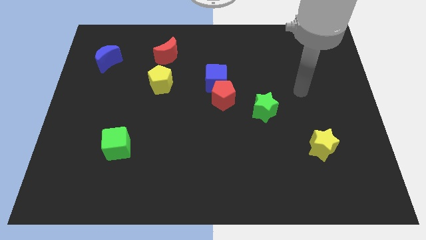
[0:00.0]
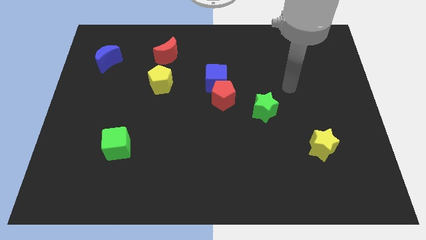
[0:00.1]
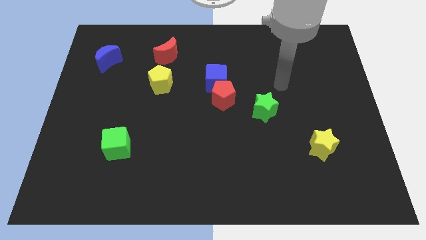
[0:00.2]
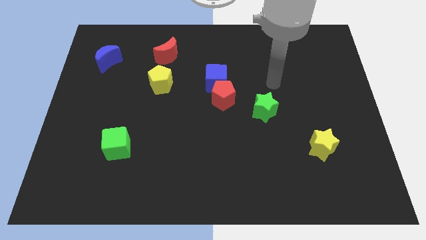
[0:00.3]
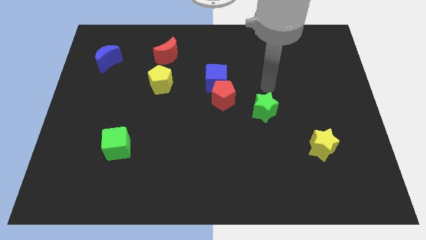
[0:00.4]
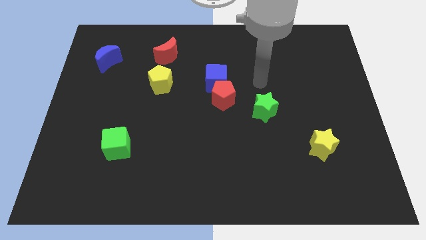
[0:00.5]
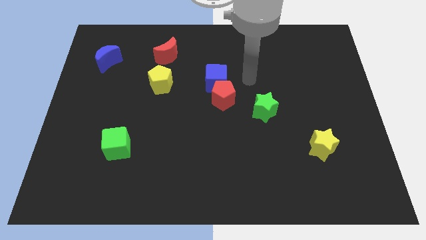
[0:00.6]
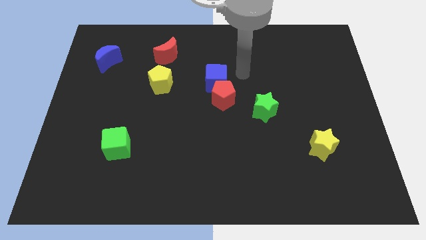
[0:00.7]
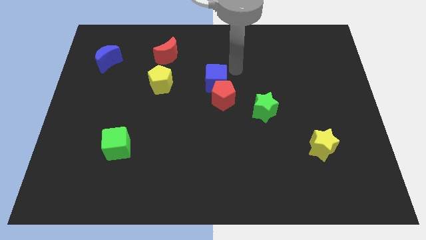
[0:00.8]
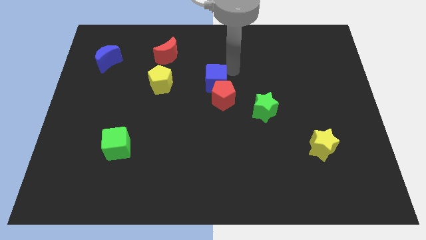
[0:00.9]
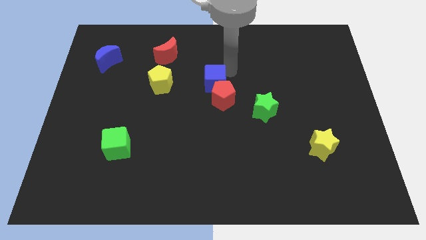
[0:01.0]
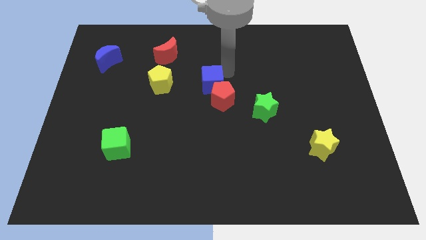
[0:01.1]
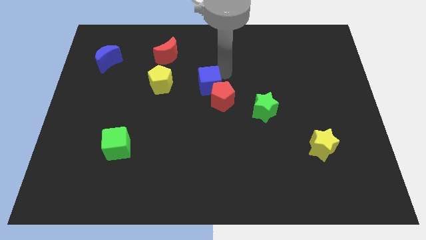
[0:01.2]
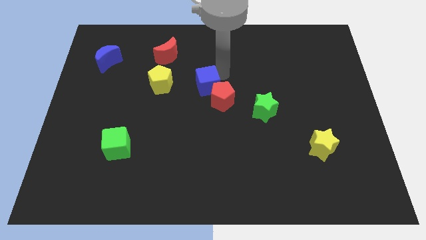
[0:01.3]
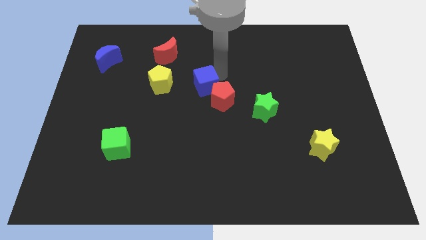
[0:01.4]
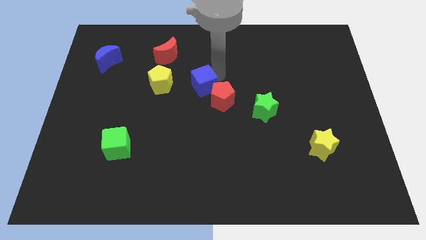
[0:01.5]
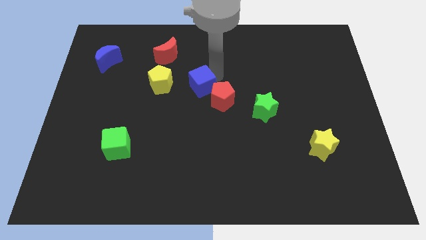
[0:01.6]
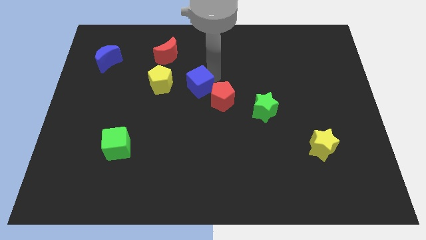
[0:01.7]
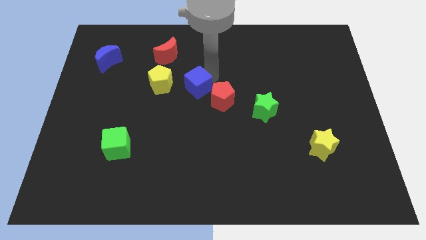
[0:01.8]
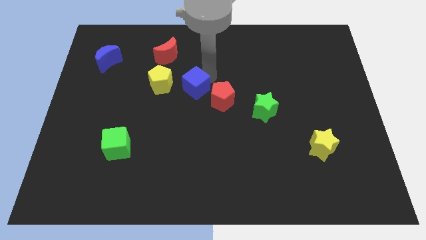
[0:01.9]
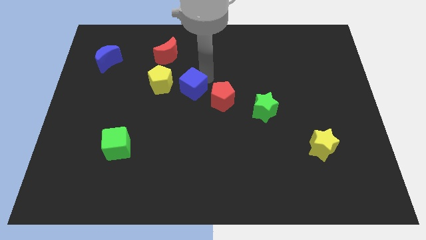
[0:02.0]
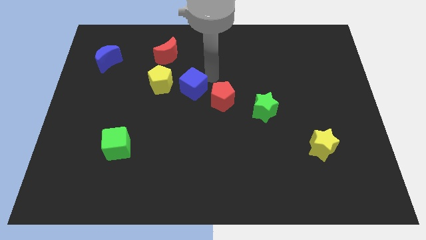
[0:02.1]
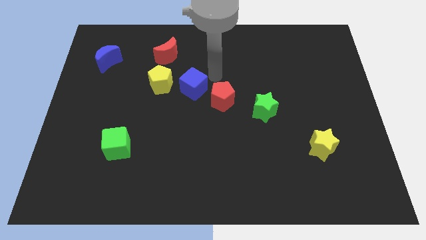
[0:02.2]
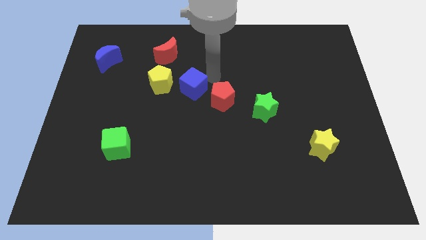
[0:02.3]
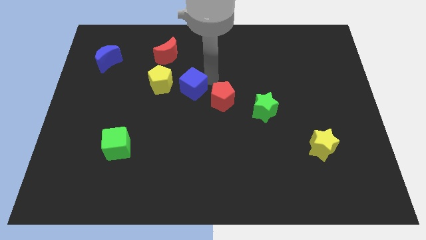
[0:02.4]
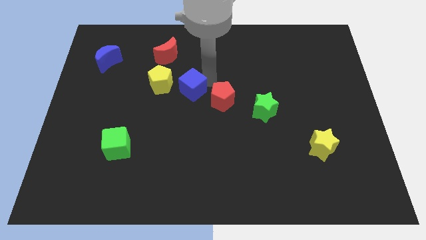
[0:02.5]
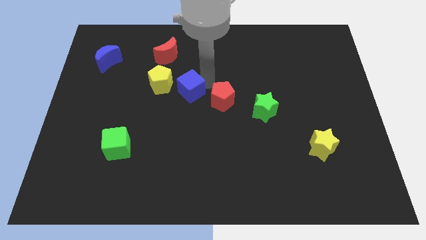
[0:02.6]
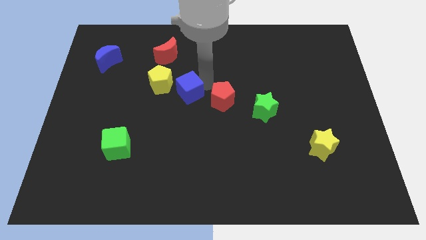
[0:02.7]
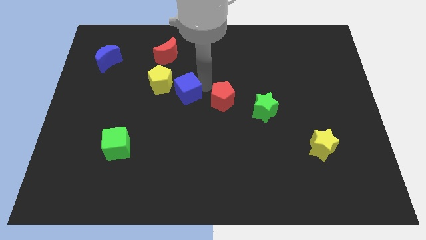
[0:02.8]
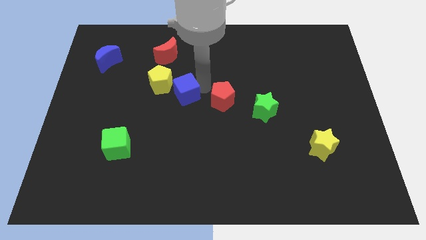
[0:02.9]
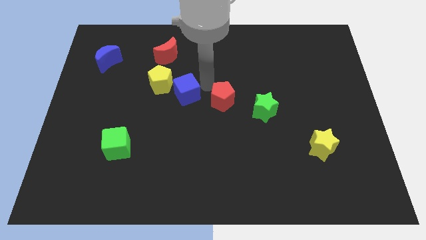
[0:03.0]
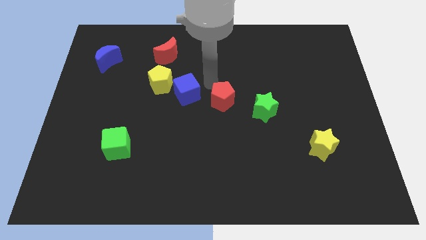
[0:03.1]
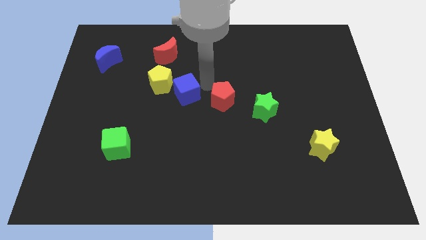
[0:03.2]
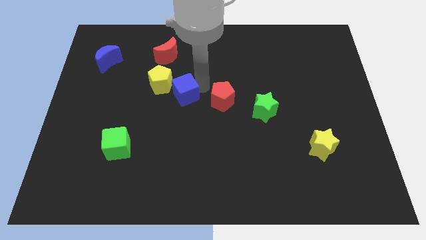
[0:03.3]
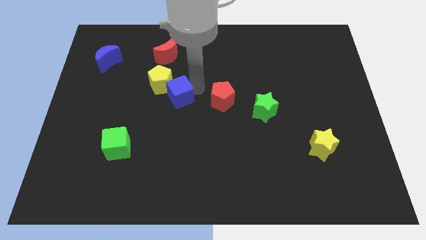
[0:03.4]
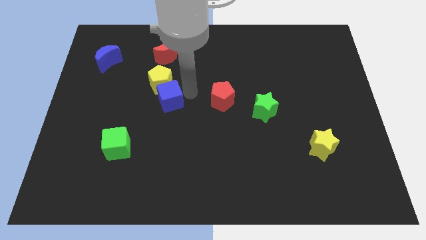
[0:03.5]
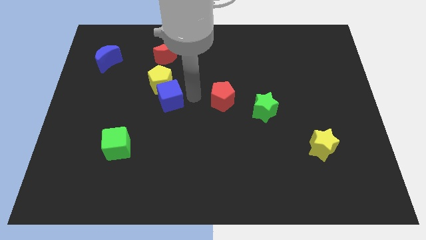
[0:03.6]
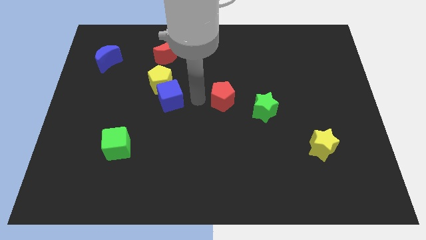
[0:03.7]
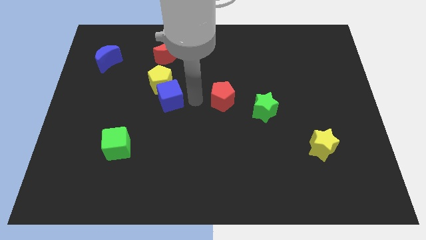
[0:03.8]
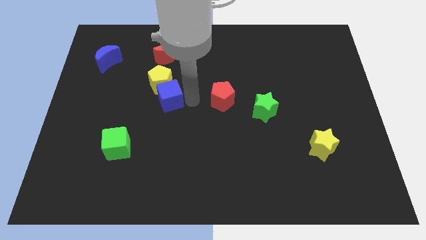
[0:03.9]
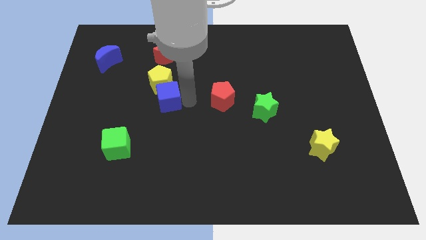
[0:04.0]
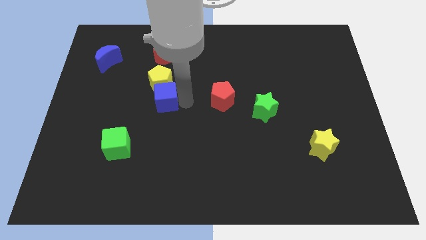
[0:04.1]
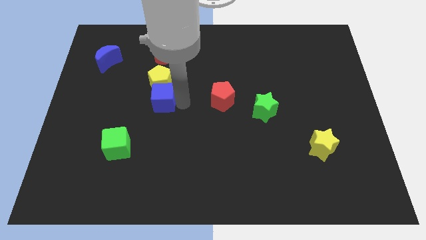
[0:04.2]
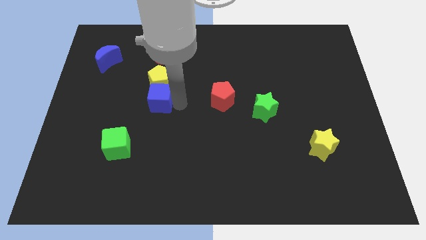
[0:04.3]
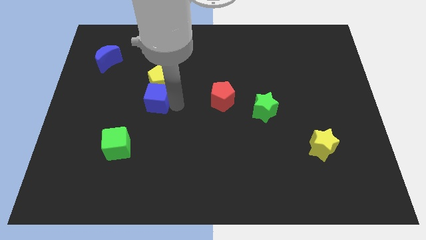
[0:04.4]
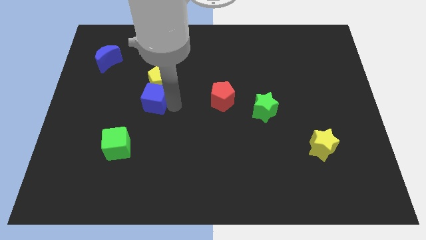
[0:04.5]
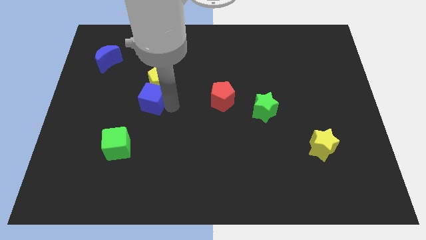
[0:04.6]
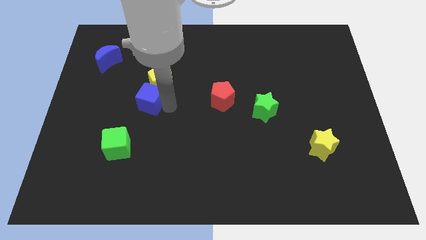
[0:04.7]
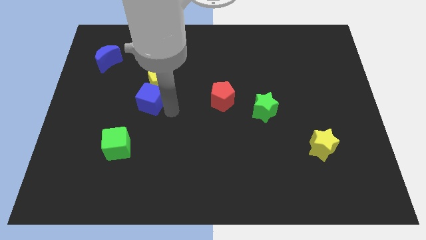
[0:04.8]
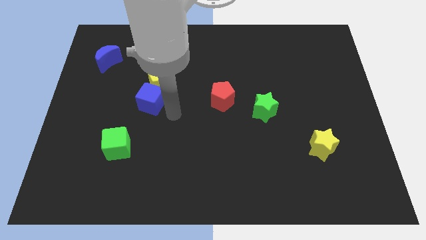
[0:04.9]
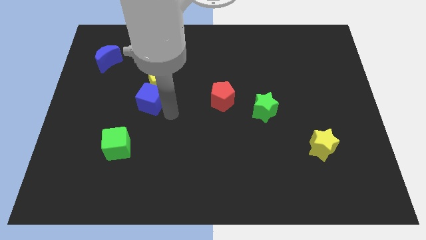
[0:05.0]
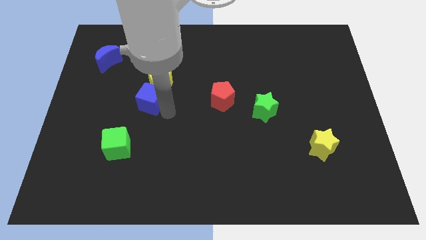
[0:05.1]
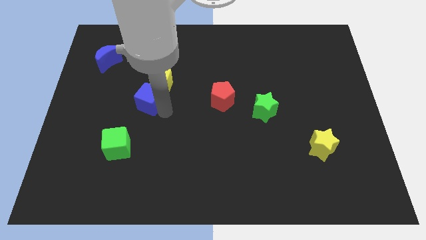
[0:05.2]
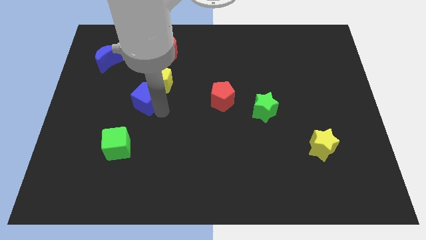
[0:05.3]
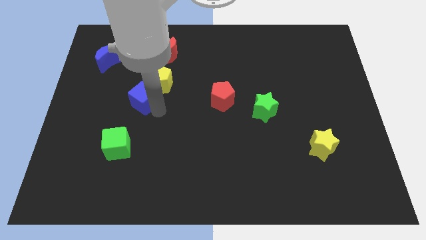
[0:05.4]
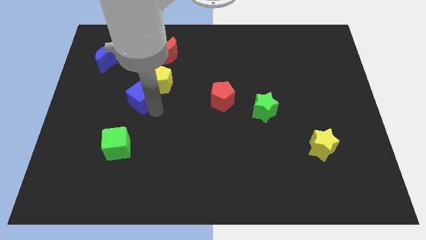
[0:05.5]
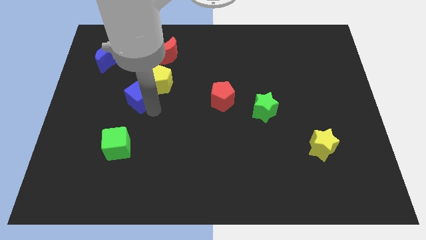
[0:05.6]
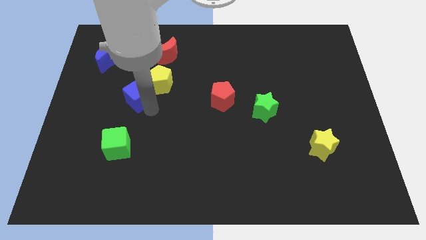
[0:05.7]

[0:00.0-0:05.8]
slide the blue cube to the left of the yellow pentagon

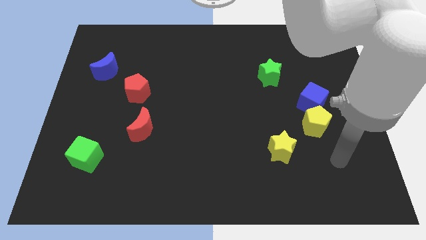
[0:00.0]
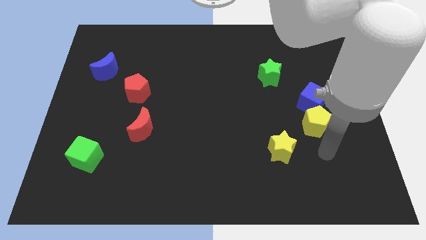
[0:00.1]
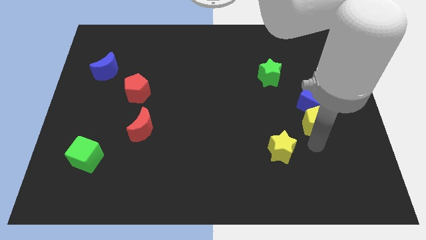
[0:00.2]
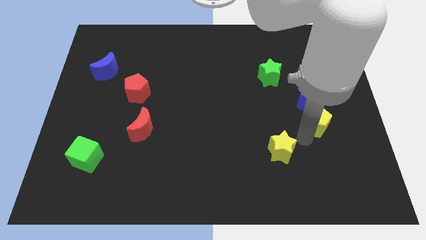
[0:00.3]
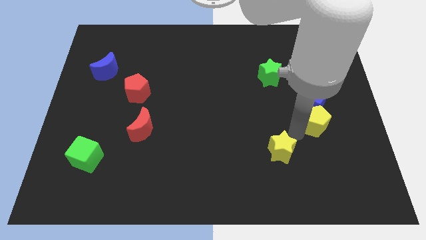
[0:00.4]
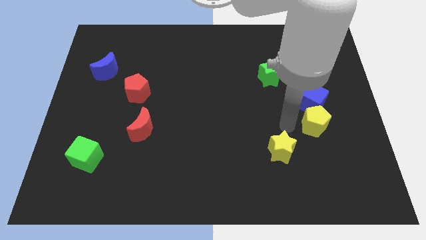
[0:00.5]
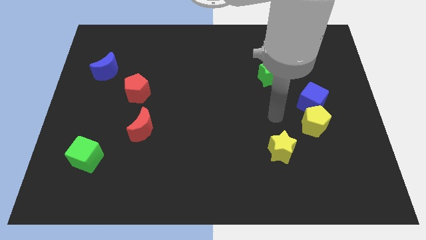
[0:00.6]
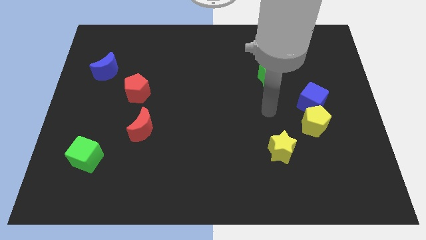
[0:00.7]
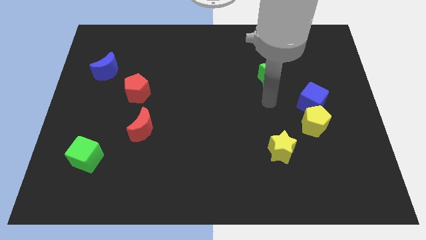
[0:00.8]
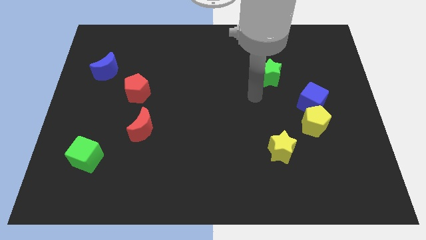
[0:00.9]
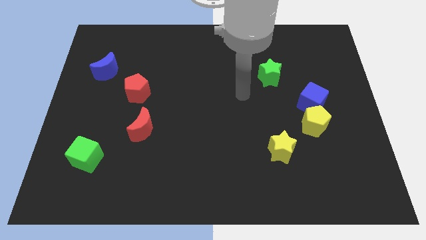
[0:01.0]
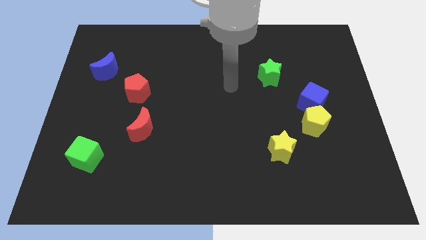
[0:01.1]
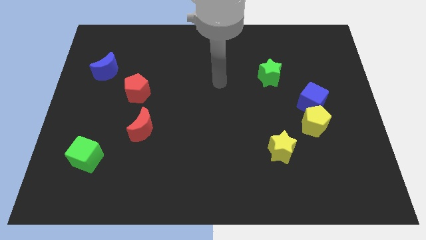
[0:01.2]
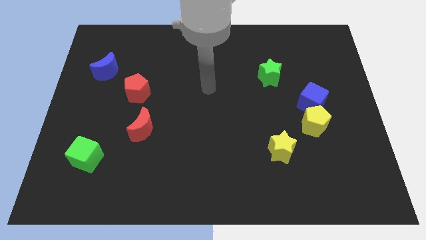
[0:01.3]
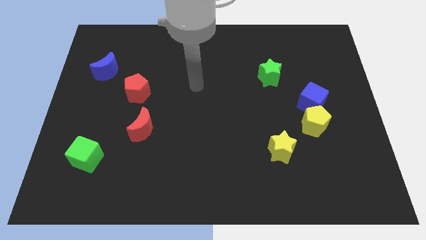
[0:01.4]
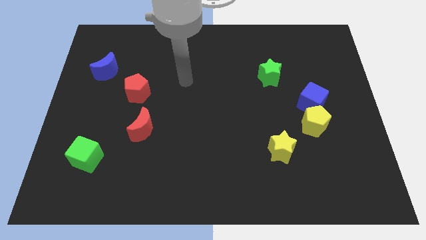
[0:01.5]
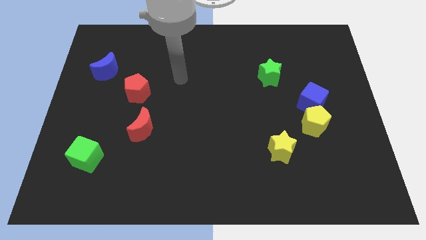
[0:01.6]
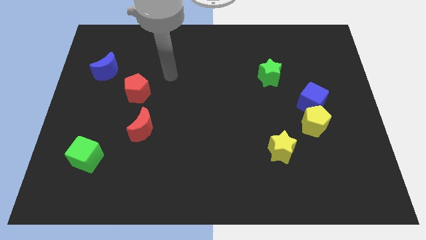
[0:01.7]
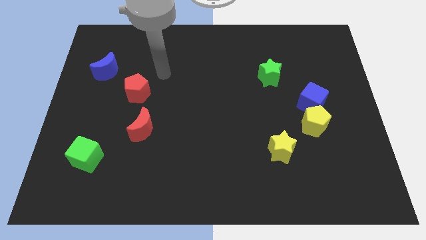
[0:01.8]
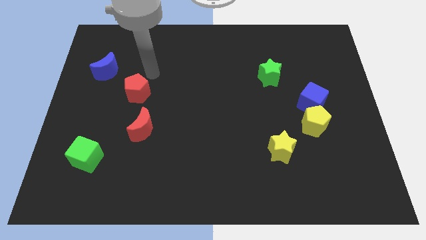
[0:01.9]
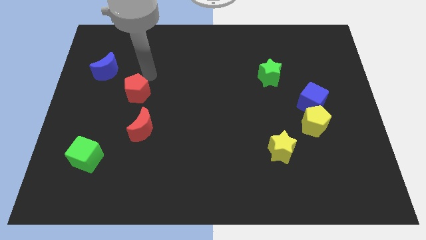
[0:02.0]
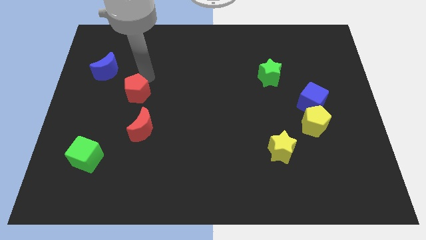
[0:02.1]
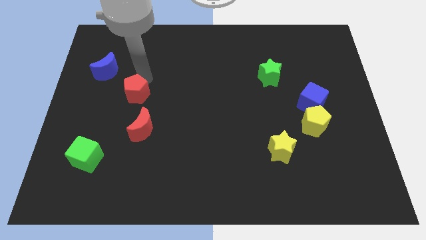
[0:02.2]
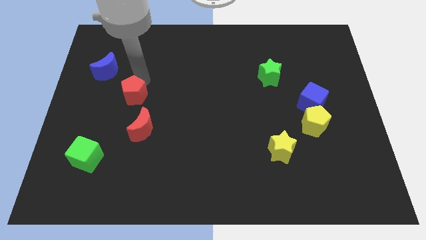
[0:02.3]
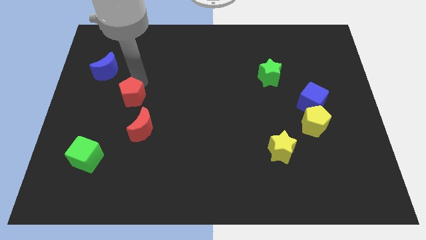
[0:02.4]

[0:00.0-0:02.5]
put the red pentagon to the top left side of the red moon
